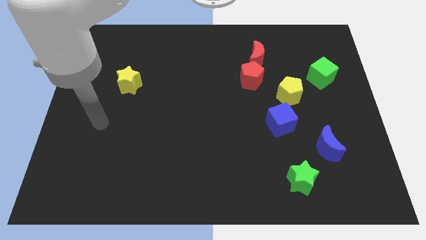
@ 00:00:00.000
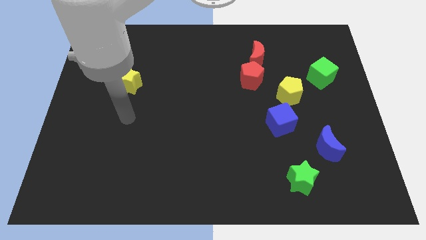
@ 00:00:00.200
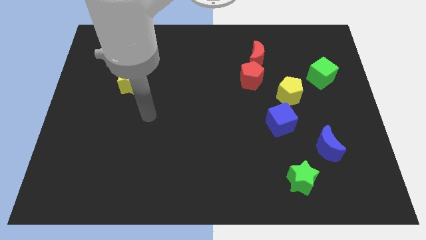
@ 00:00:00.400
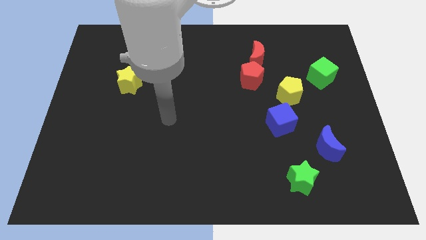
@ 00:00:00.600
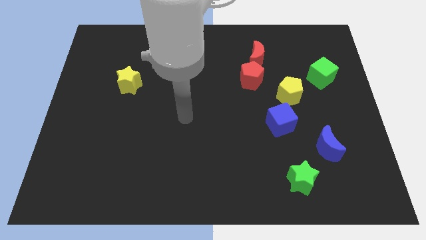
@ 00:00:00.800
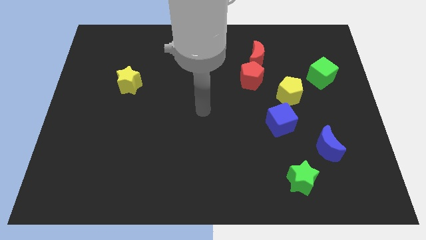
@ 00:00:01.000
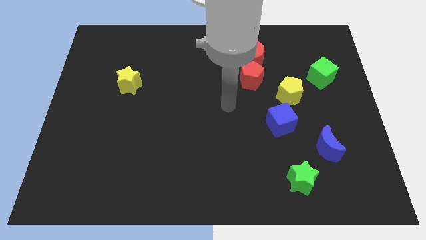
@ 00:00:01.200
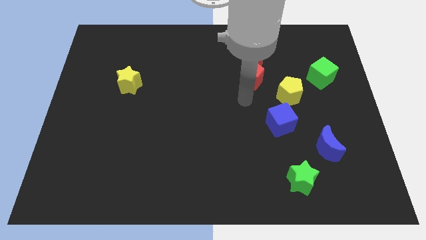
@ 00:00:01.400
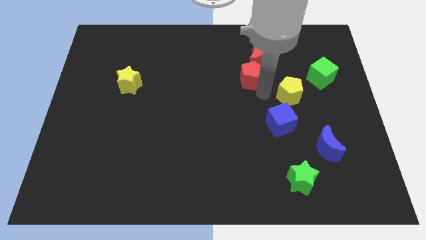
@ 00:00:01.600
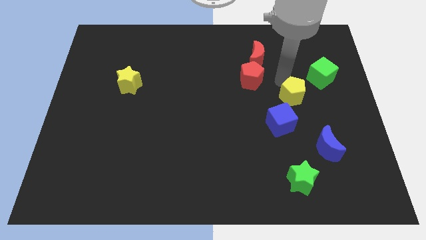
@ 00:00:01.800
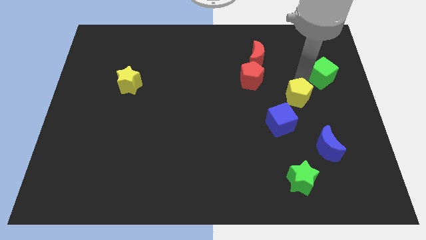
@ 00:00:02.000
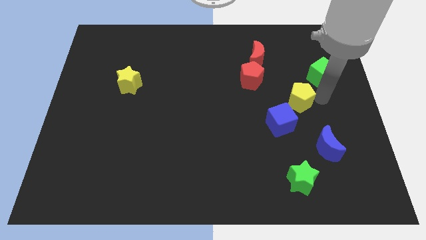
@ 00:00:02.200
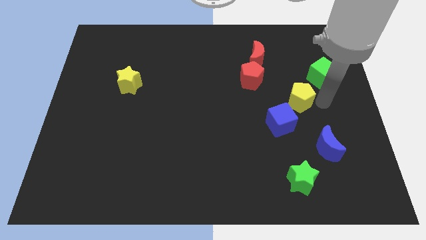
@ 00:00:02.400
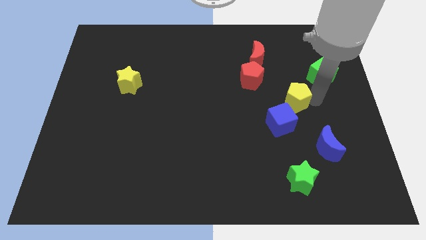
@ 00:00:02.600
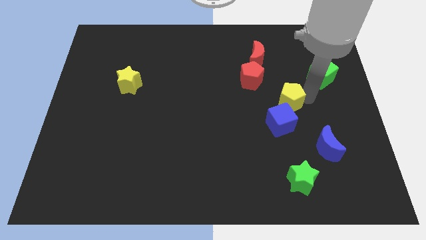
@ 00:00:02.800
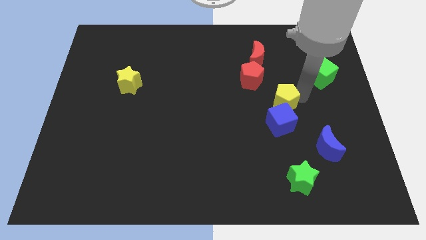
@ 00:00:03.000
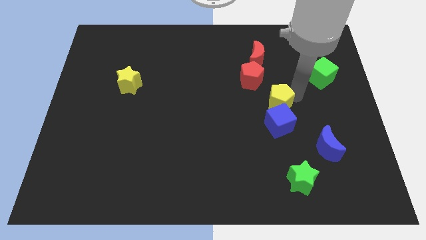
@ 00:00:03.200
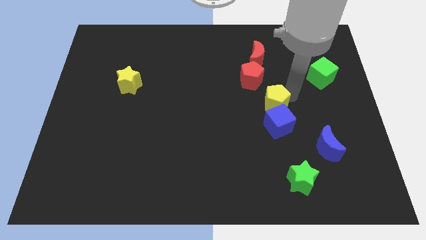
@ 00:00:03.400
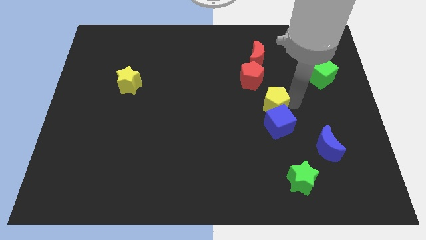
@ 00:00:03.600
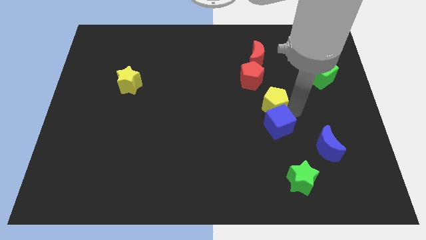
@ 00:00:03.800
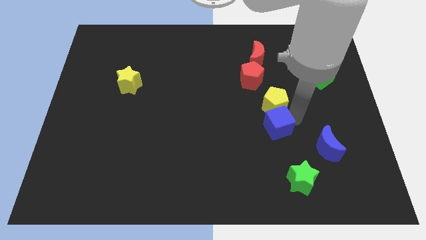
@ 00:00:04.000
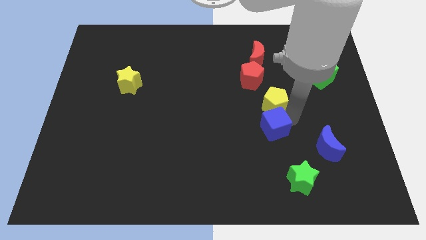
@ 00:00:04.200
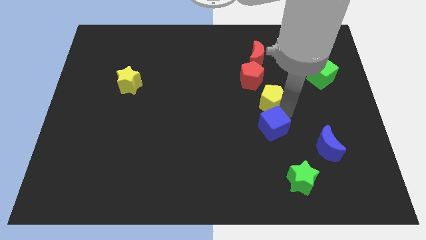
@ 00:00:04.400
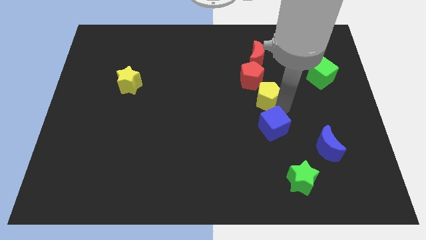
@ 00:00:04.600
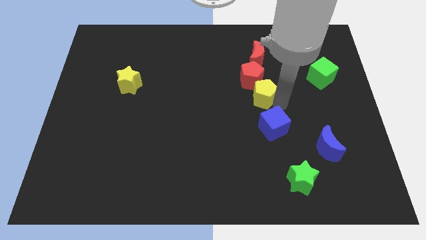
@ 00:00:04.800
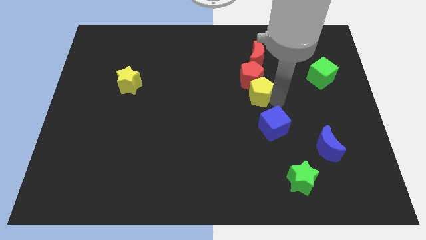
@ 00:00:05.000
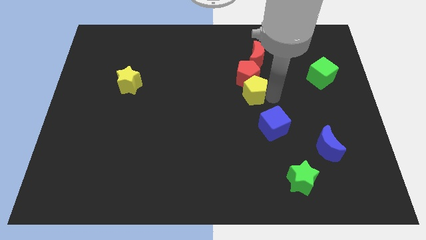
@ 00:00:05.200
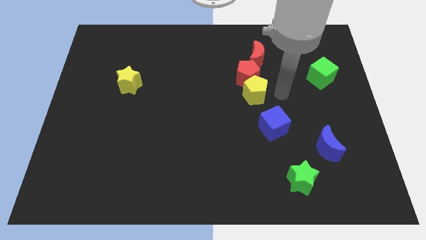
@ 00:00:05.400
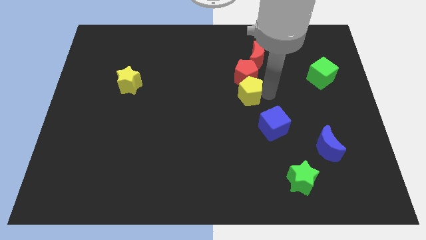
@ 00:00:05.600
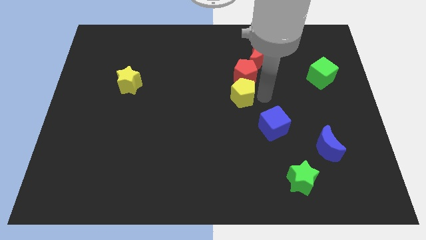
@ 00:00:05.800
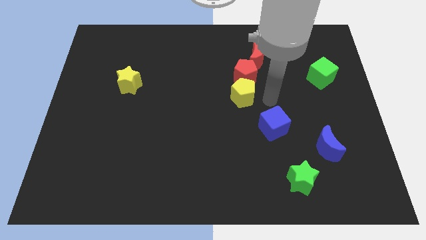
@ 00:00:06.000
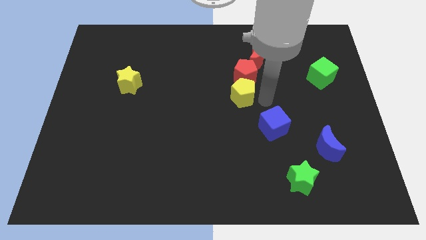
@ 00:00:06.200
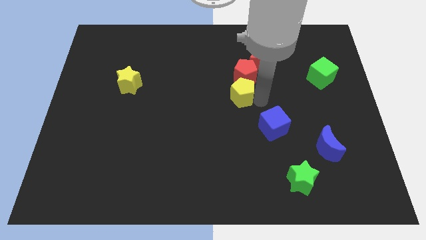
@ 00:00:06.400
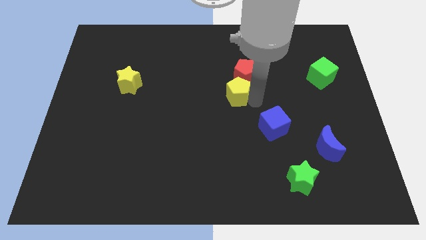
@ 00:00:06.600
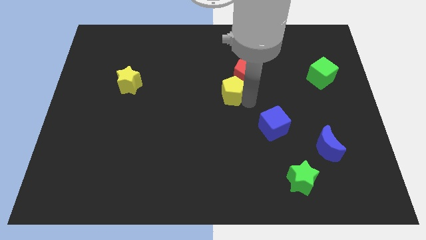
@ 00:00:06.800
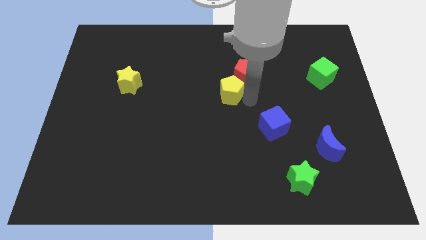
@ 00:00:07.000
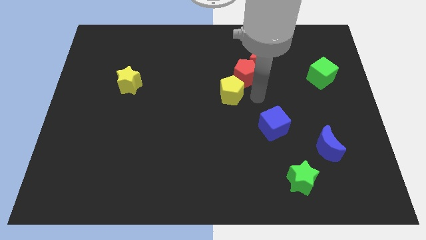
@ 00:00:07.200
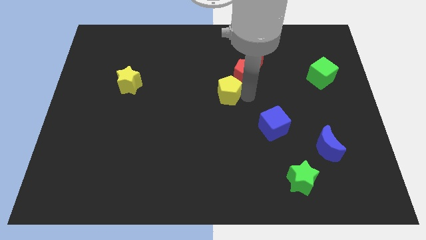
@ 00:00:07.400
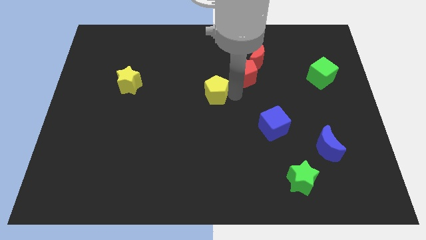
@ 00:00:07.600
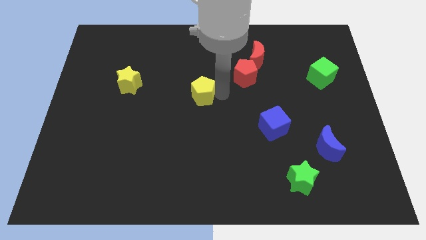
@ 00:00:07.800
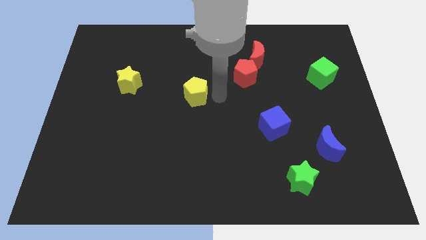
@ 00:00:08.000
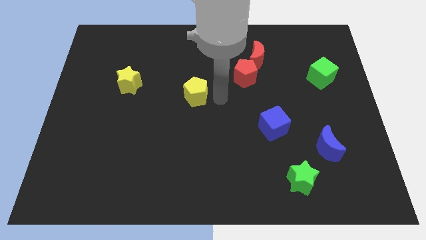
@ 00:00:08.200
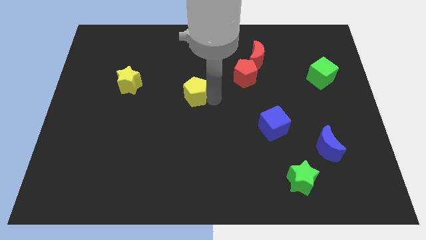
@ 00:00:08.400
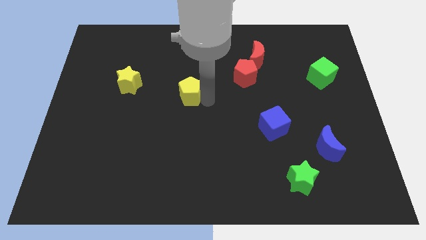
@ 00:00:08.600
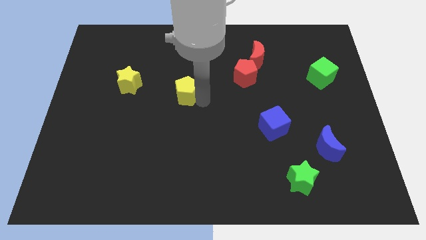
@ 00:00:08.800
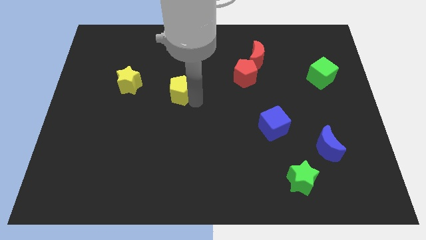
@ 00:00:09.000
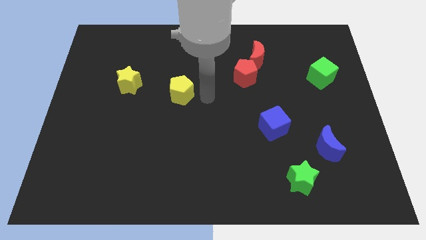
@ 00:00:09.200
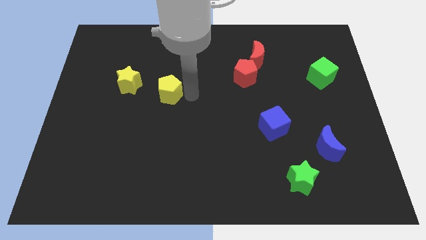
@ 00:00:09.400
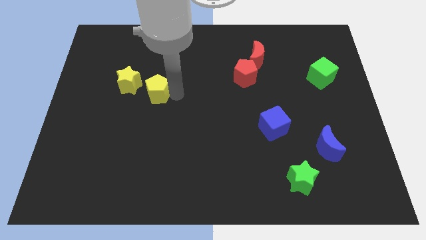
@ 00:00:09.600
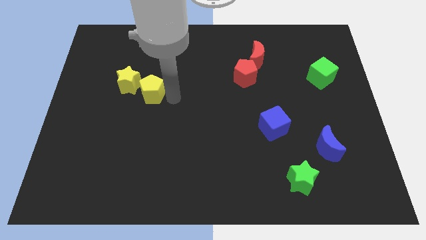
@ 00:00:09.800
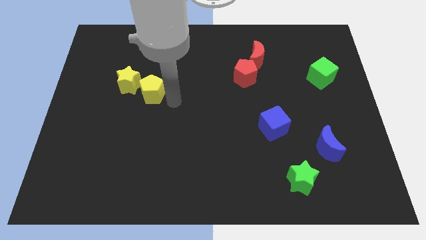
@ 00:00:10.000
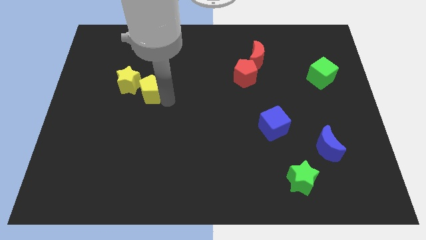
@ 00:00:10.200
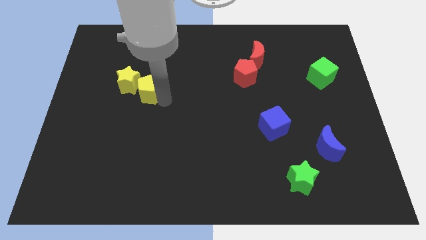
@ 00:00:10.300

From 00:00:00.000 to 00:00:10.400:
push the yellow pentagon close to the yellow star

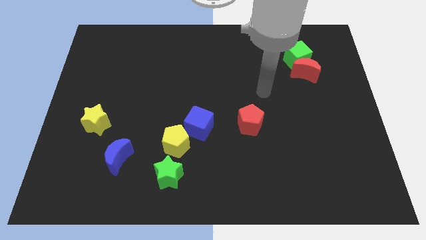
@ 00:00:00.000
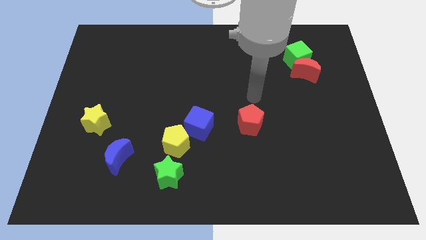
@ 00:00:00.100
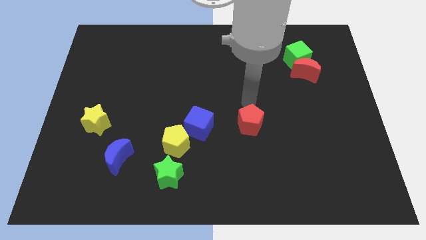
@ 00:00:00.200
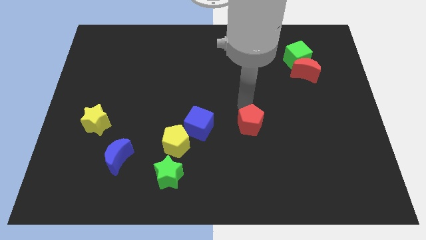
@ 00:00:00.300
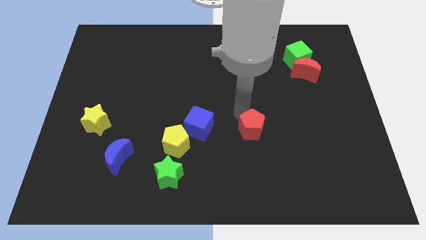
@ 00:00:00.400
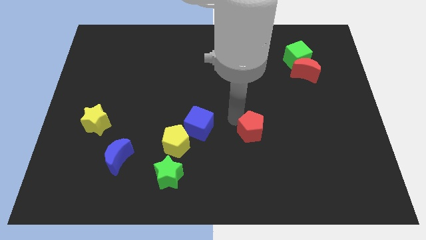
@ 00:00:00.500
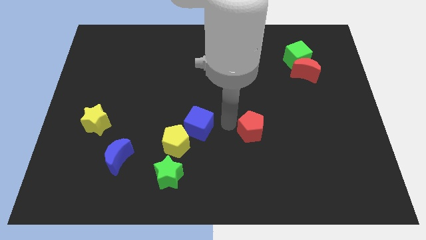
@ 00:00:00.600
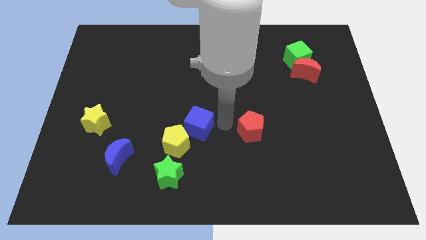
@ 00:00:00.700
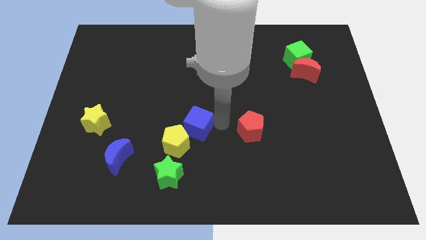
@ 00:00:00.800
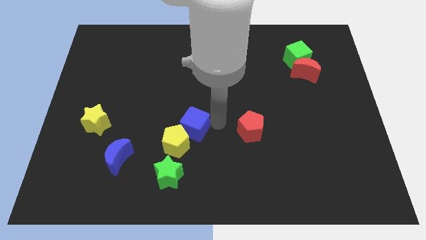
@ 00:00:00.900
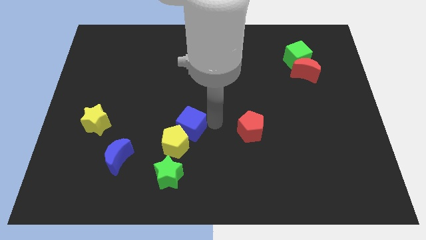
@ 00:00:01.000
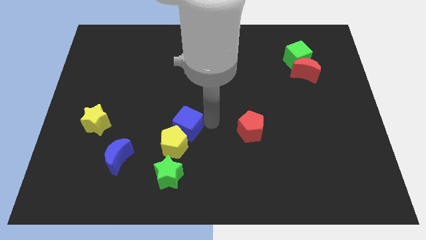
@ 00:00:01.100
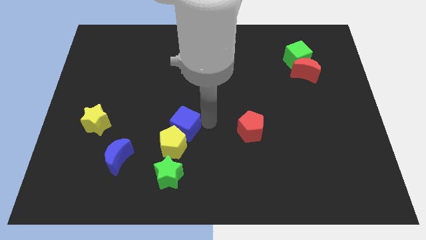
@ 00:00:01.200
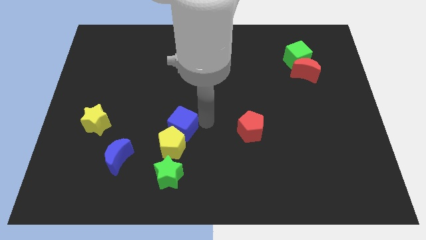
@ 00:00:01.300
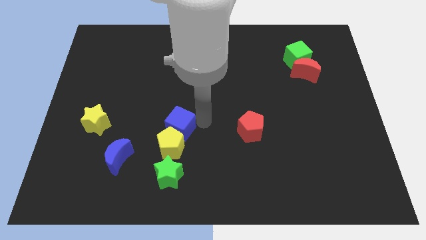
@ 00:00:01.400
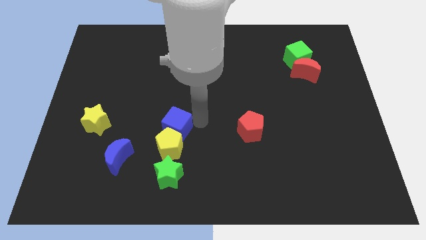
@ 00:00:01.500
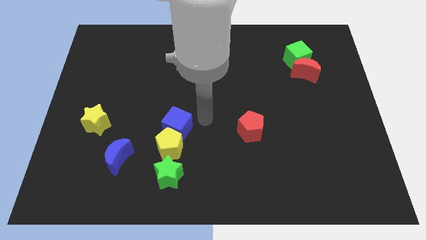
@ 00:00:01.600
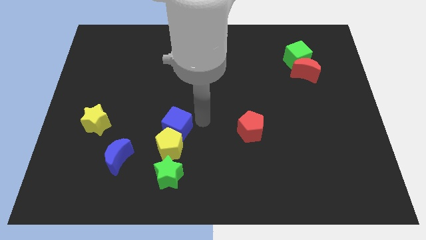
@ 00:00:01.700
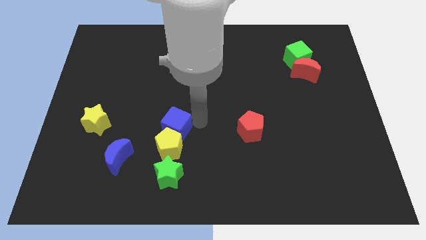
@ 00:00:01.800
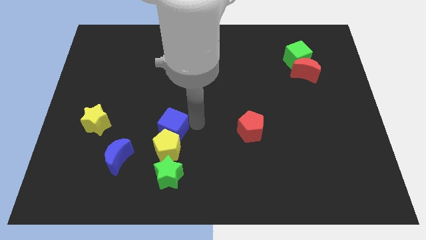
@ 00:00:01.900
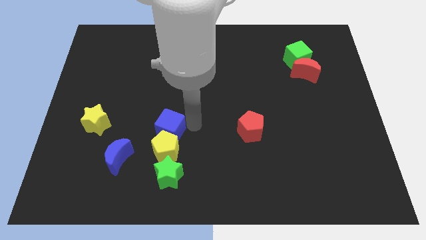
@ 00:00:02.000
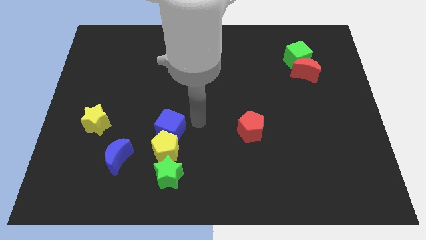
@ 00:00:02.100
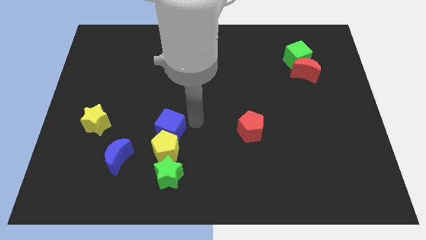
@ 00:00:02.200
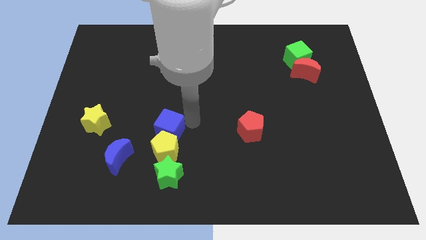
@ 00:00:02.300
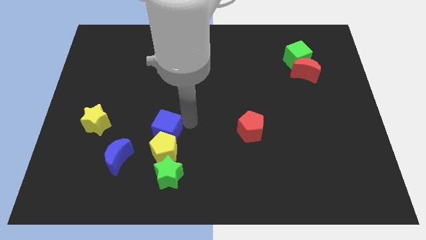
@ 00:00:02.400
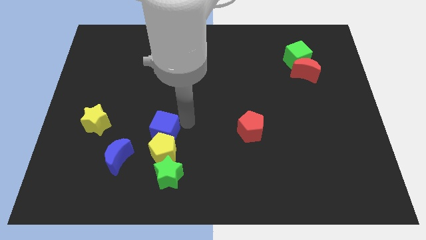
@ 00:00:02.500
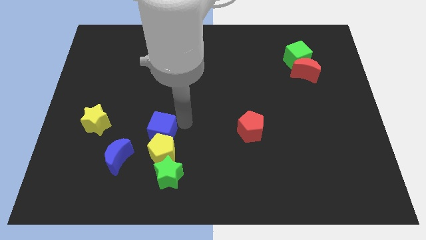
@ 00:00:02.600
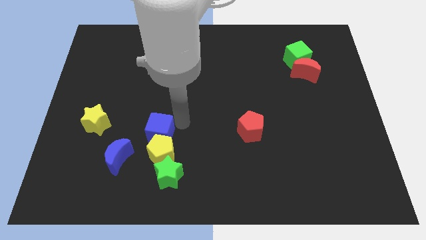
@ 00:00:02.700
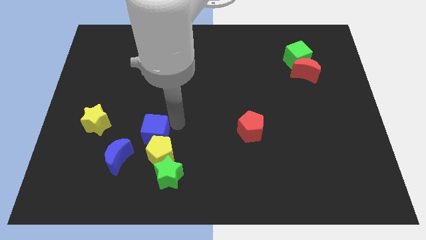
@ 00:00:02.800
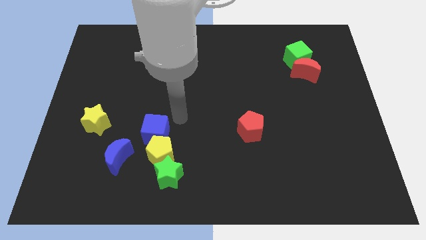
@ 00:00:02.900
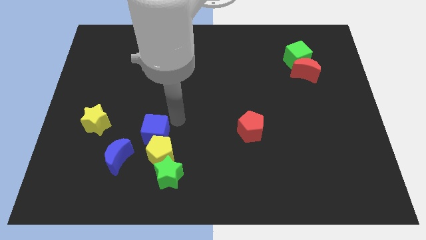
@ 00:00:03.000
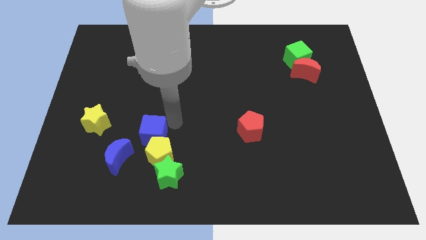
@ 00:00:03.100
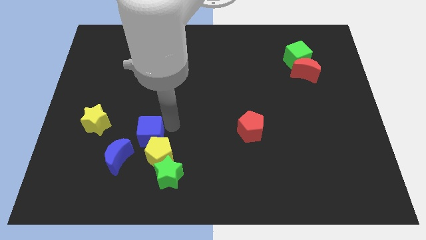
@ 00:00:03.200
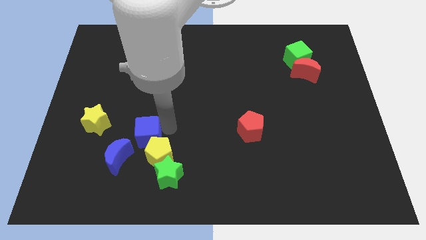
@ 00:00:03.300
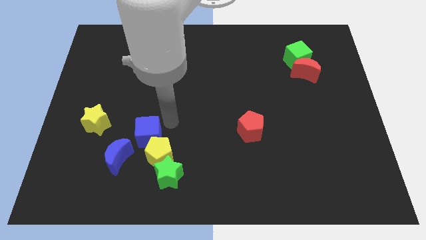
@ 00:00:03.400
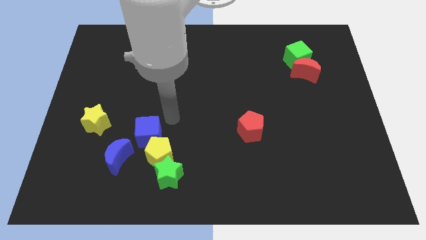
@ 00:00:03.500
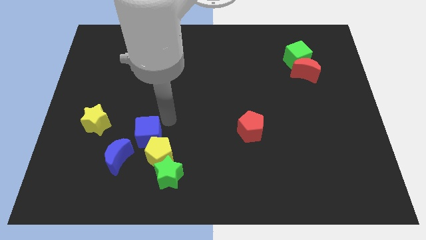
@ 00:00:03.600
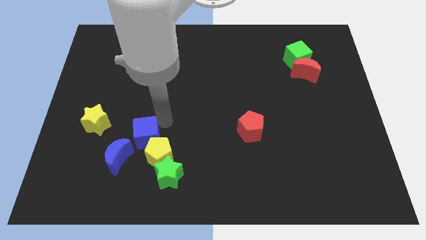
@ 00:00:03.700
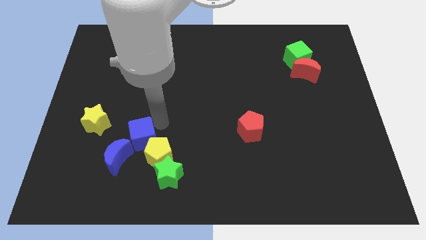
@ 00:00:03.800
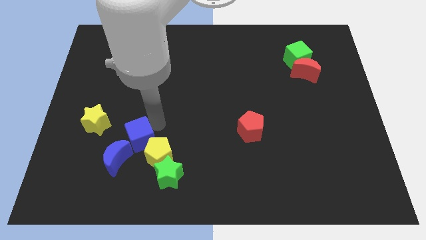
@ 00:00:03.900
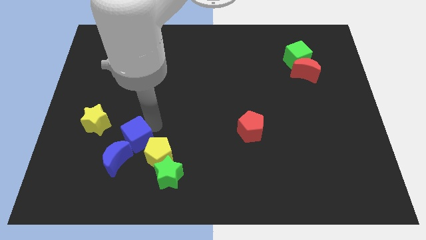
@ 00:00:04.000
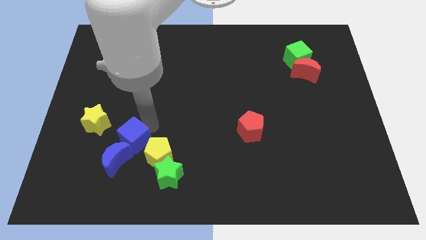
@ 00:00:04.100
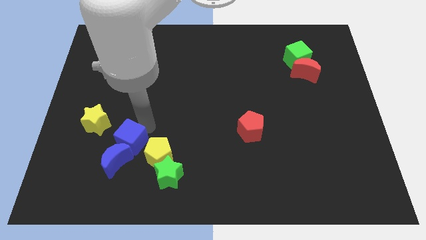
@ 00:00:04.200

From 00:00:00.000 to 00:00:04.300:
move the blue cube towards the blue moon
